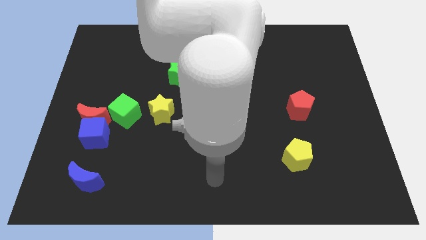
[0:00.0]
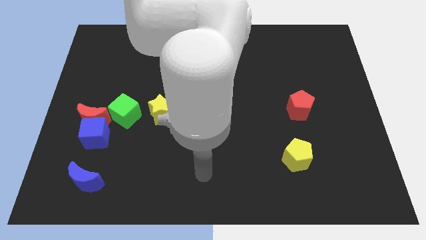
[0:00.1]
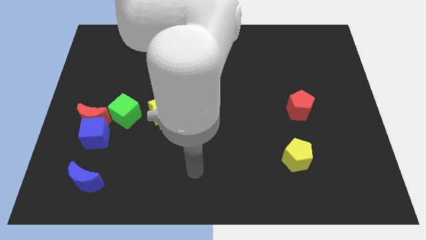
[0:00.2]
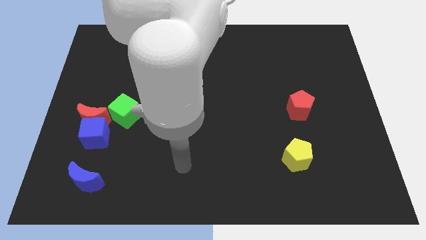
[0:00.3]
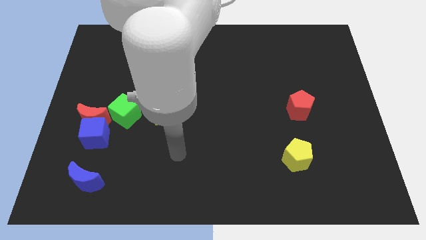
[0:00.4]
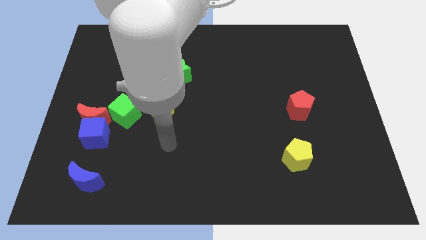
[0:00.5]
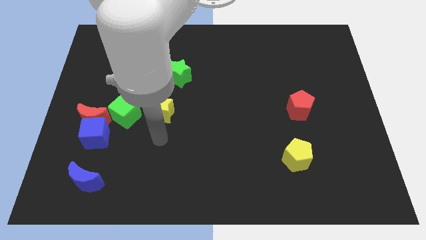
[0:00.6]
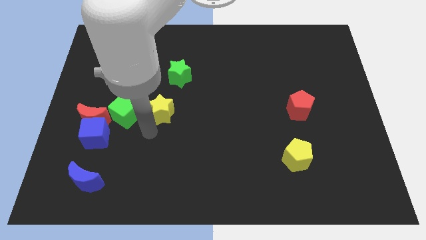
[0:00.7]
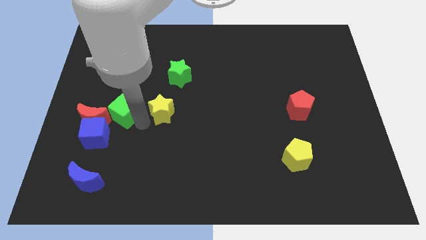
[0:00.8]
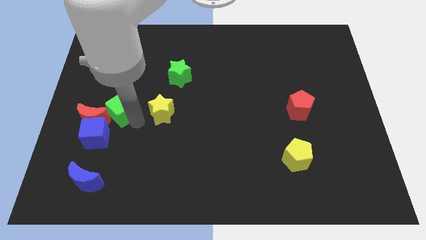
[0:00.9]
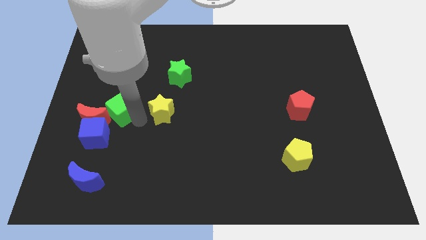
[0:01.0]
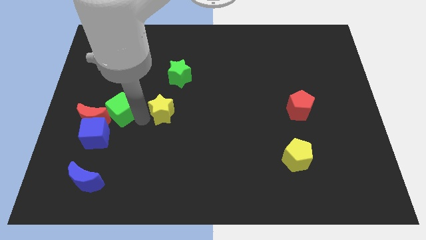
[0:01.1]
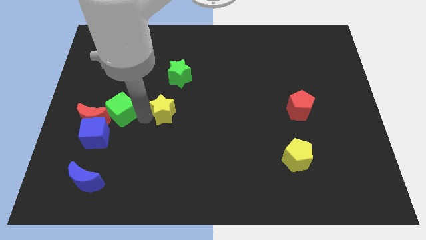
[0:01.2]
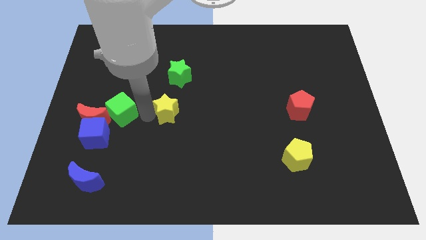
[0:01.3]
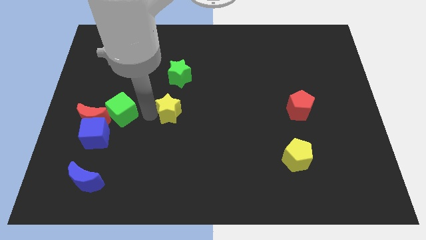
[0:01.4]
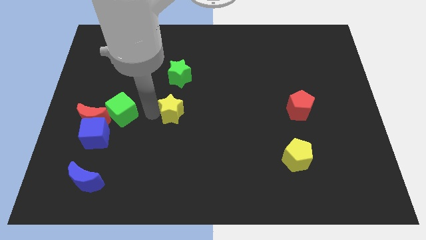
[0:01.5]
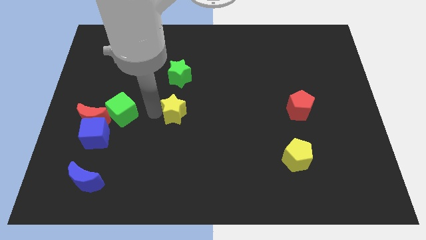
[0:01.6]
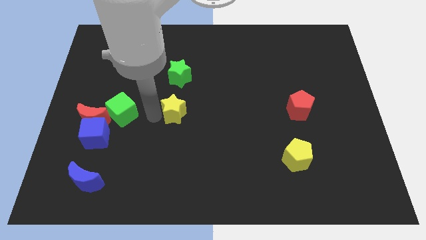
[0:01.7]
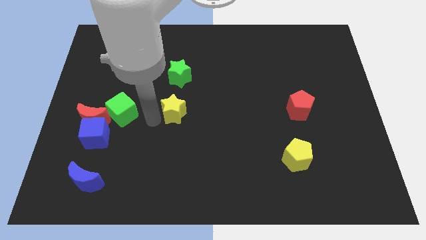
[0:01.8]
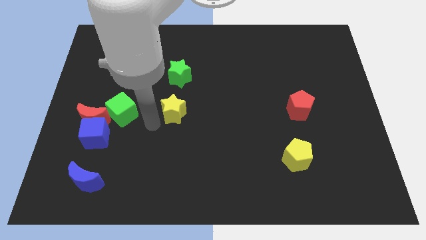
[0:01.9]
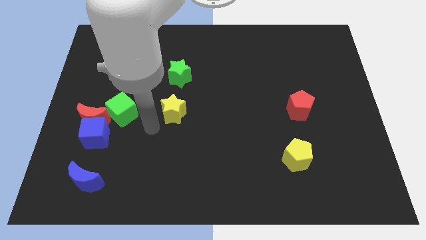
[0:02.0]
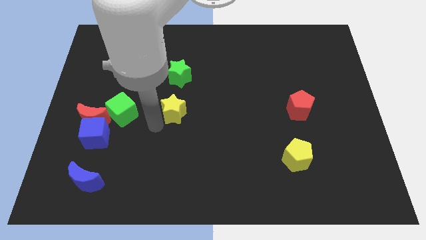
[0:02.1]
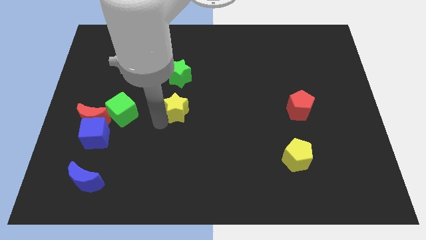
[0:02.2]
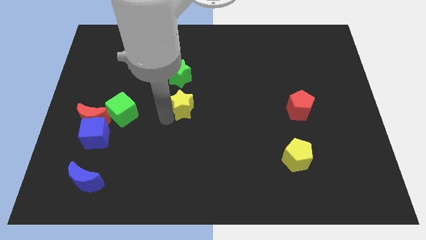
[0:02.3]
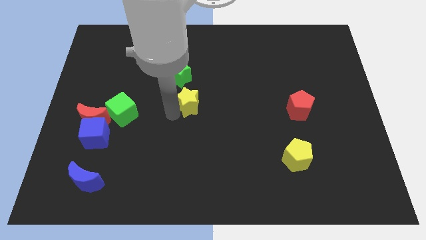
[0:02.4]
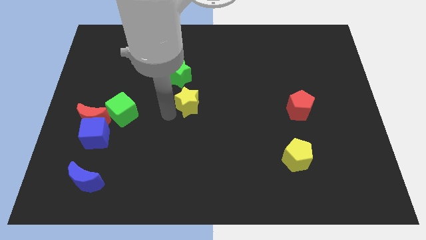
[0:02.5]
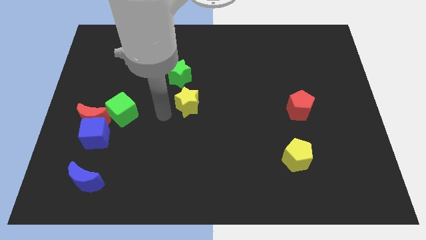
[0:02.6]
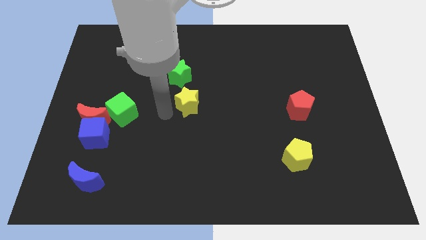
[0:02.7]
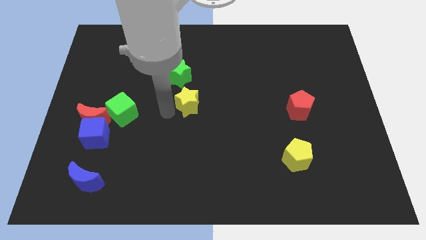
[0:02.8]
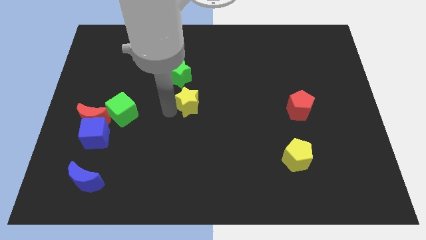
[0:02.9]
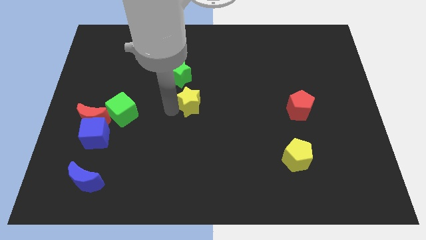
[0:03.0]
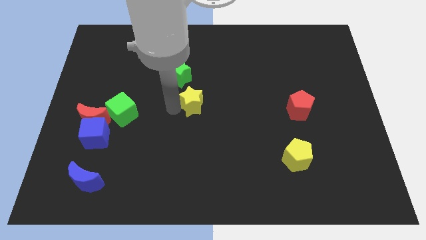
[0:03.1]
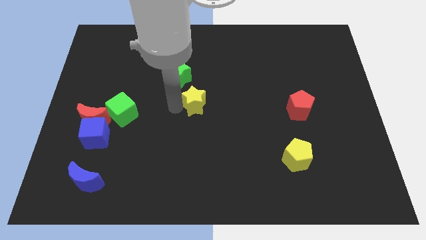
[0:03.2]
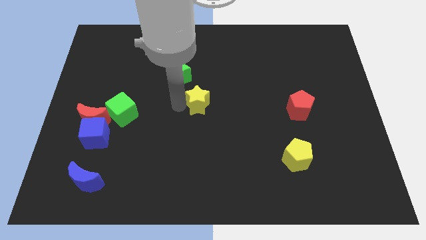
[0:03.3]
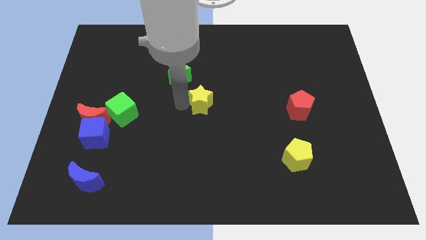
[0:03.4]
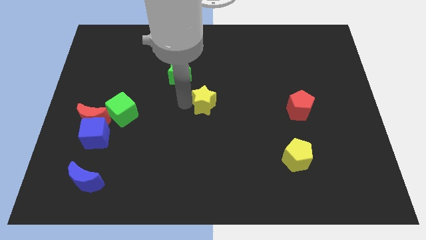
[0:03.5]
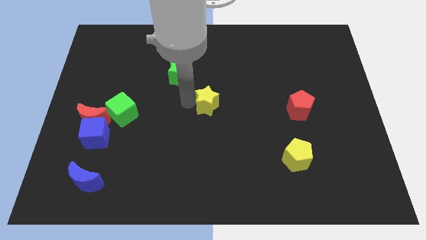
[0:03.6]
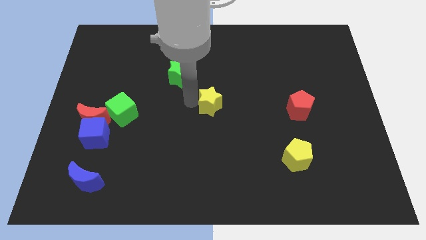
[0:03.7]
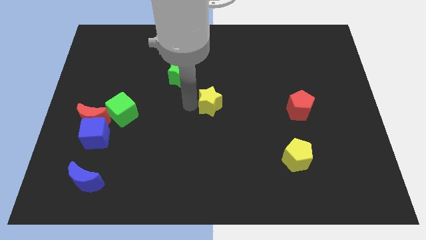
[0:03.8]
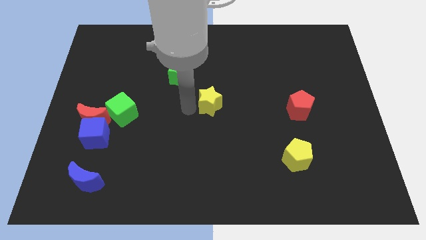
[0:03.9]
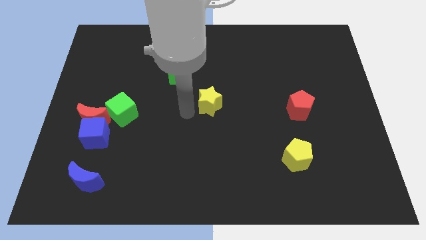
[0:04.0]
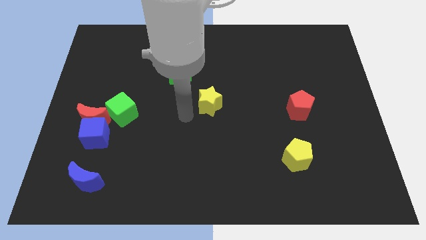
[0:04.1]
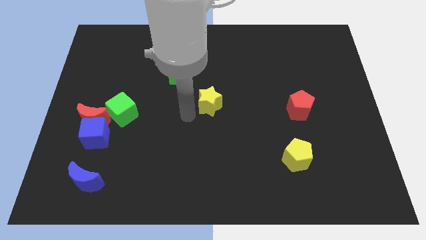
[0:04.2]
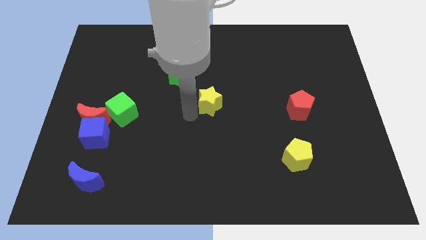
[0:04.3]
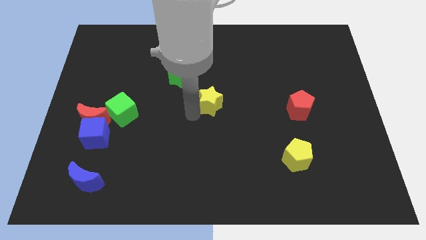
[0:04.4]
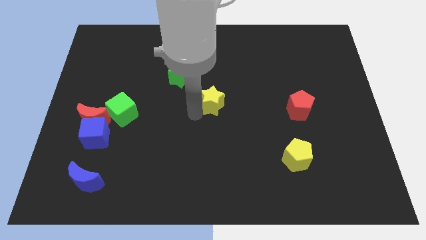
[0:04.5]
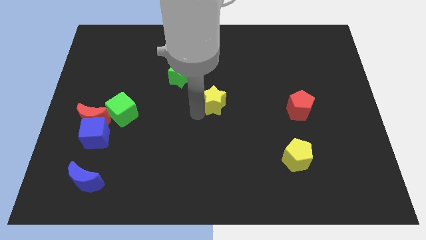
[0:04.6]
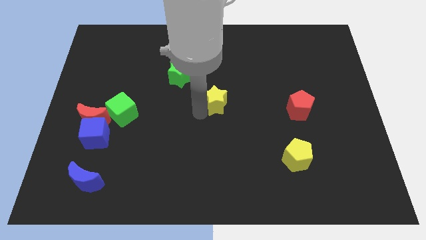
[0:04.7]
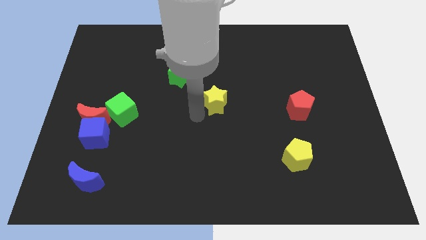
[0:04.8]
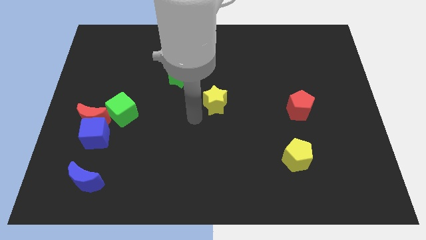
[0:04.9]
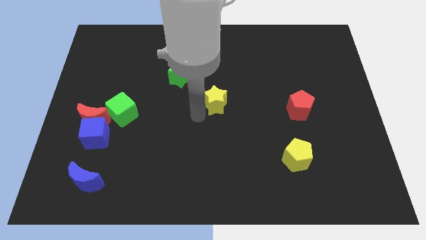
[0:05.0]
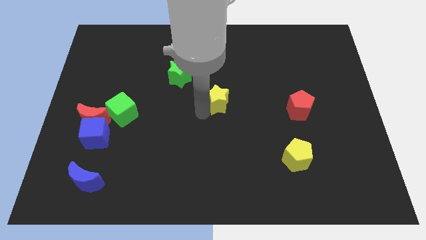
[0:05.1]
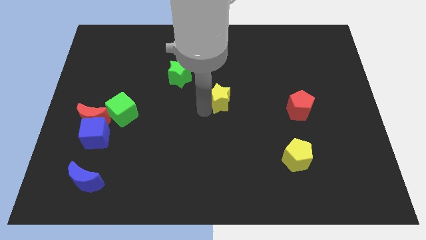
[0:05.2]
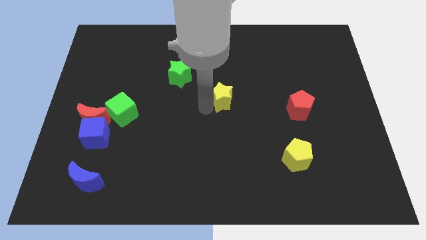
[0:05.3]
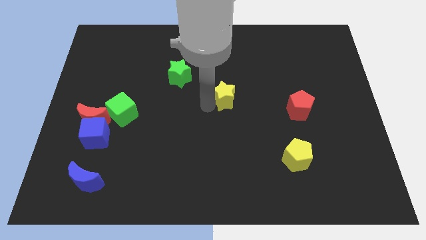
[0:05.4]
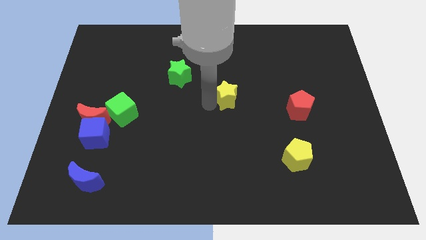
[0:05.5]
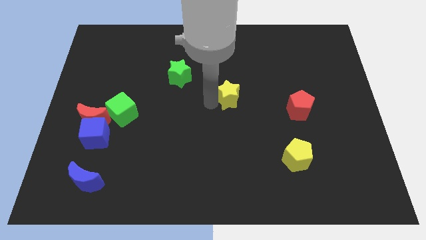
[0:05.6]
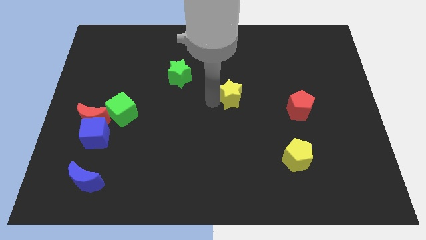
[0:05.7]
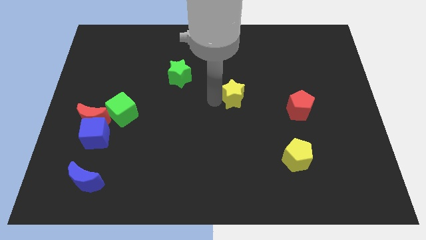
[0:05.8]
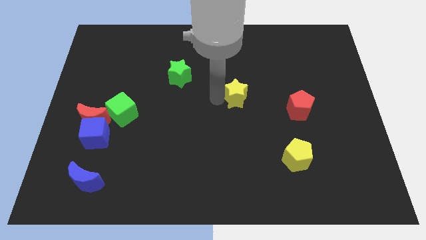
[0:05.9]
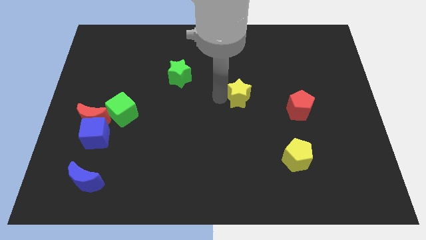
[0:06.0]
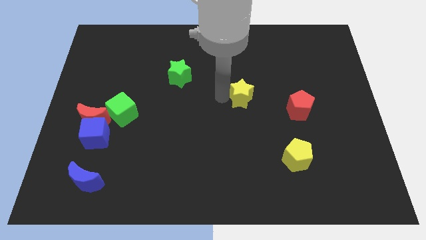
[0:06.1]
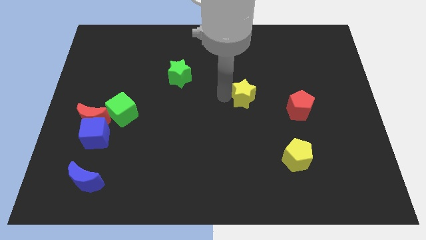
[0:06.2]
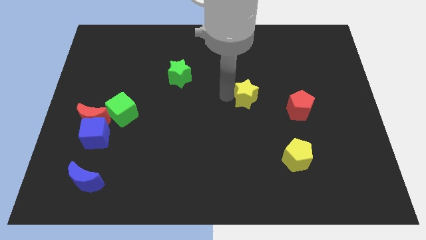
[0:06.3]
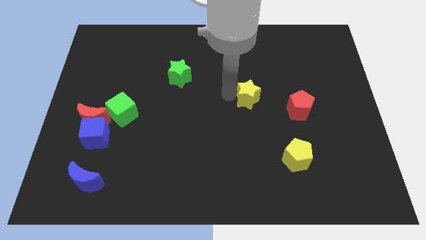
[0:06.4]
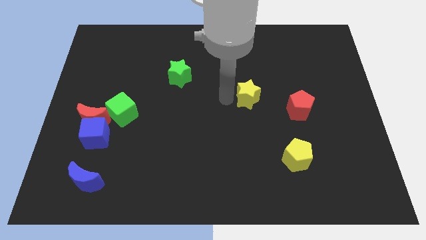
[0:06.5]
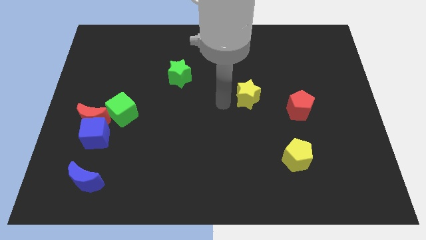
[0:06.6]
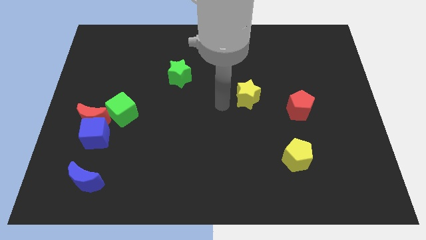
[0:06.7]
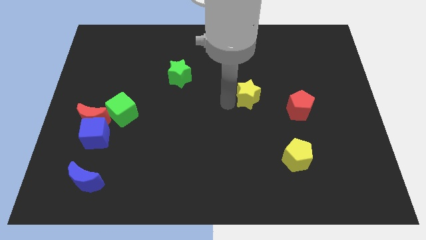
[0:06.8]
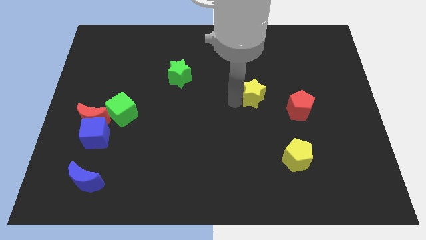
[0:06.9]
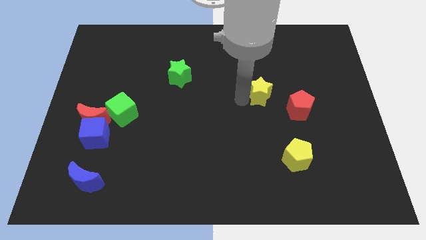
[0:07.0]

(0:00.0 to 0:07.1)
slide the yellow star to the top left of the red pentagon
